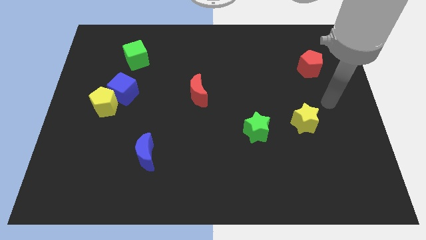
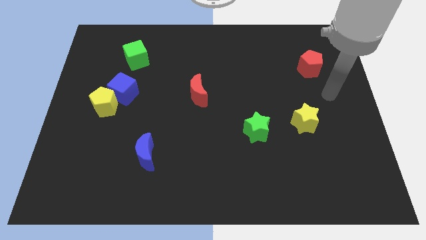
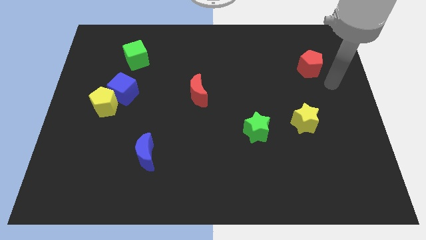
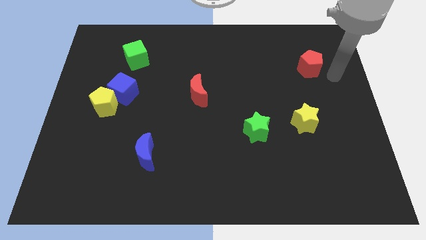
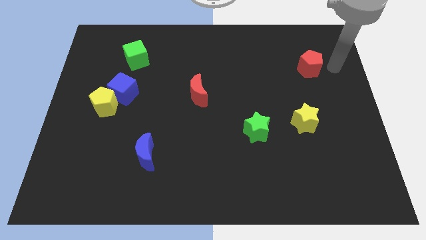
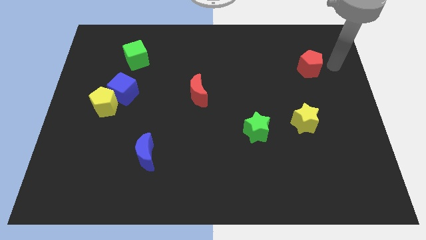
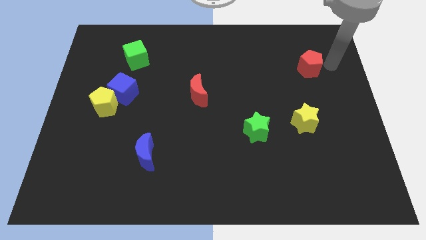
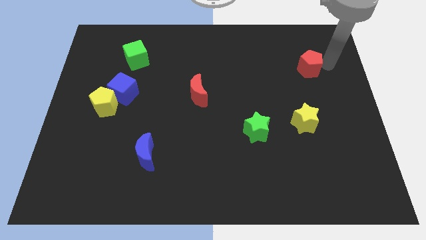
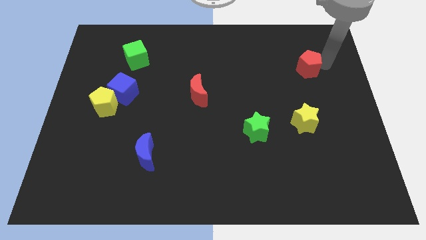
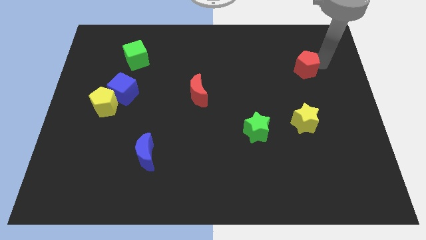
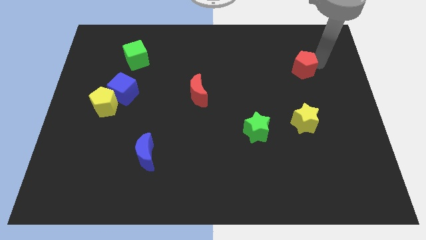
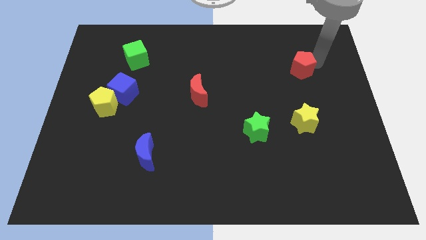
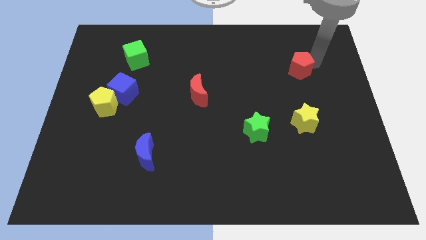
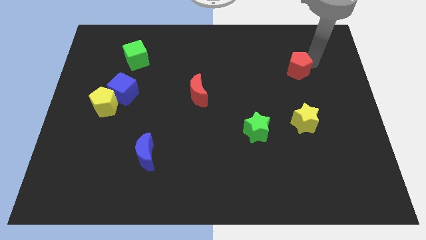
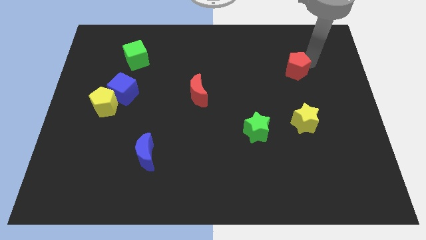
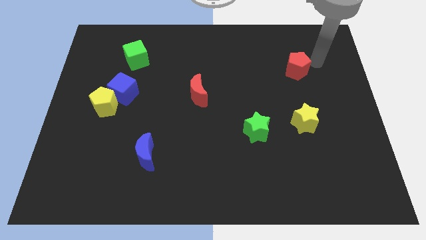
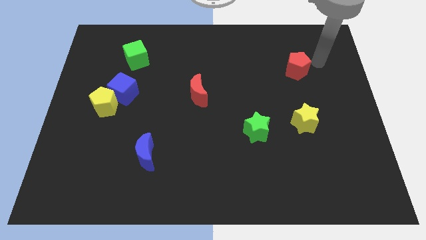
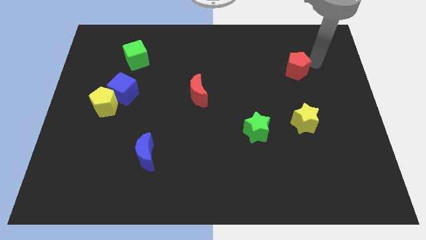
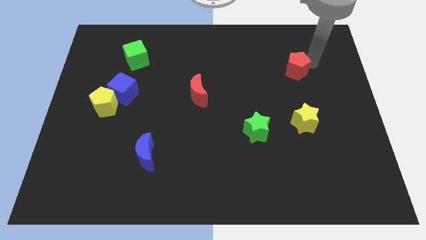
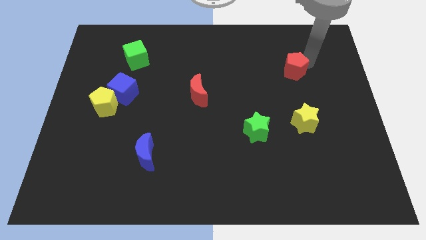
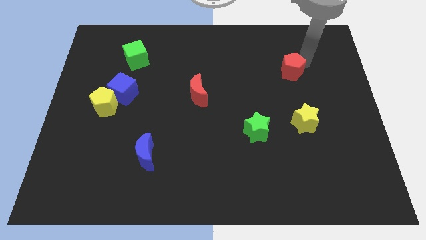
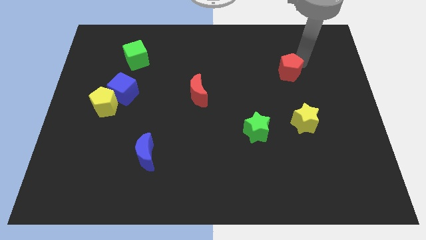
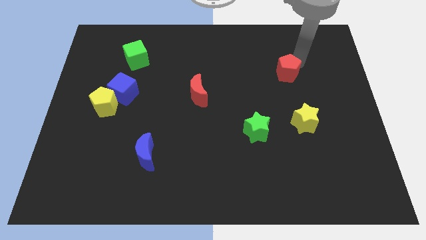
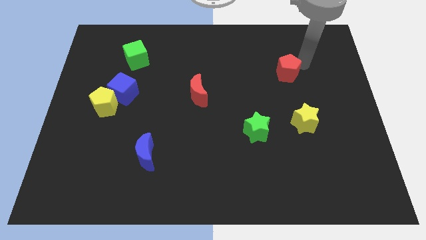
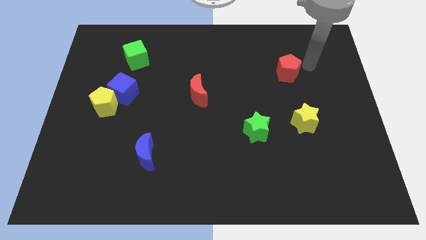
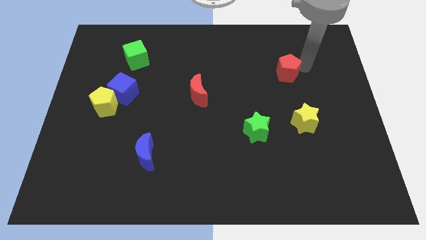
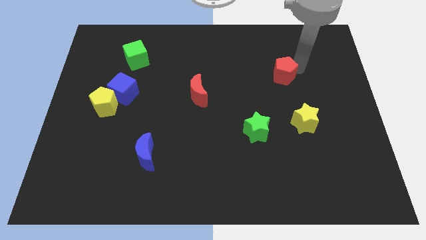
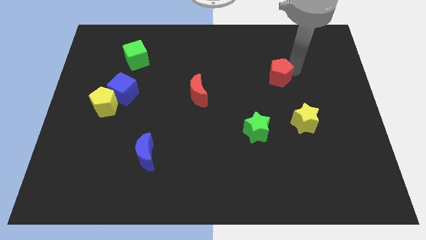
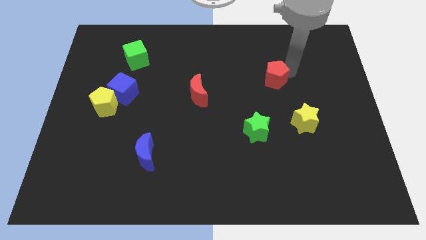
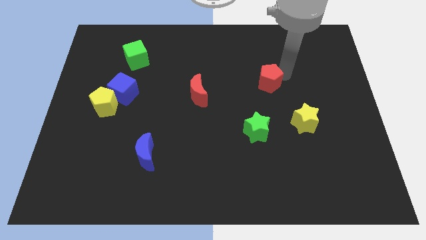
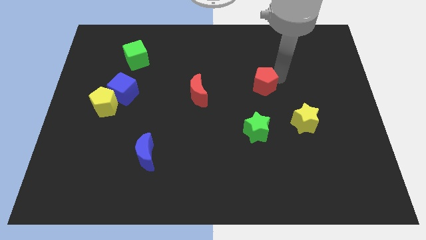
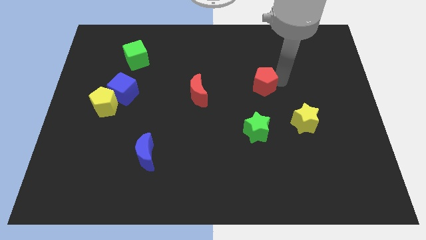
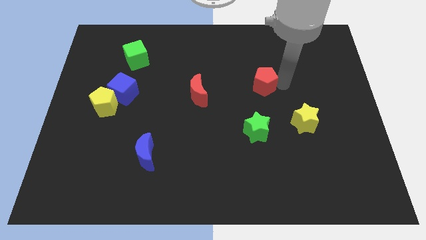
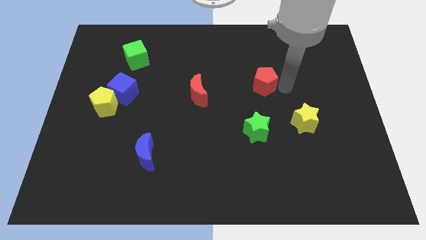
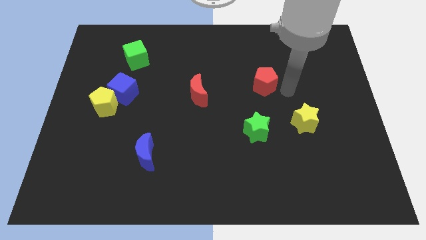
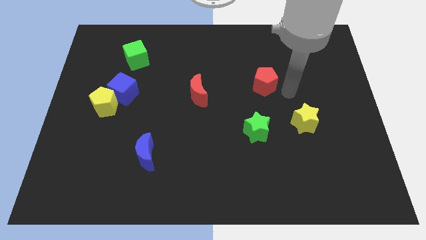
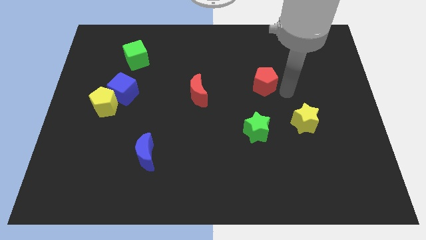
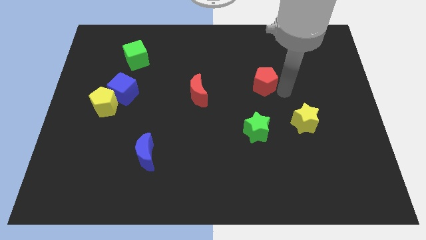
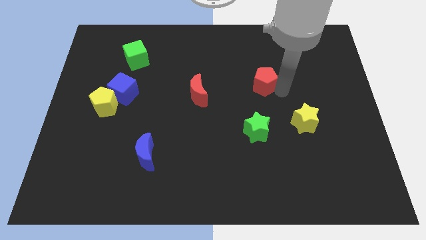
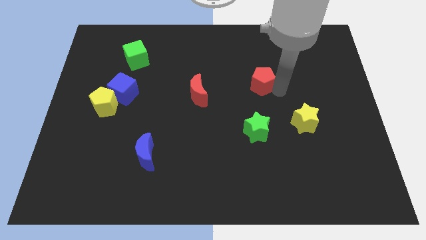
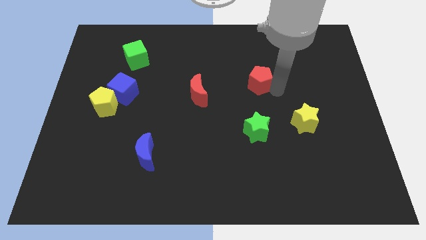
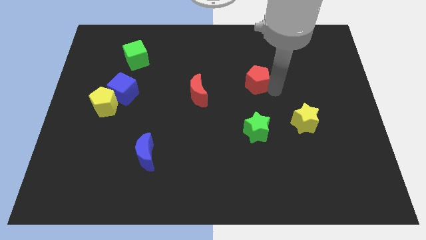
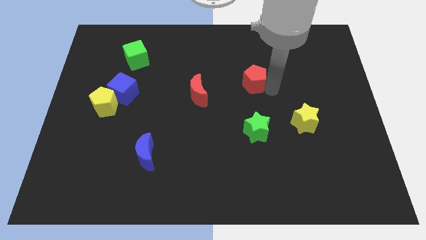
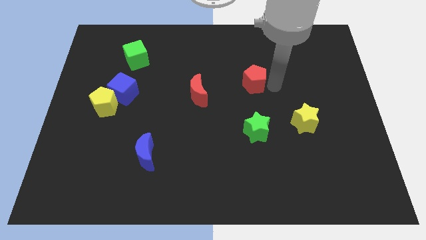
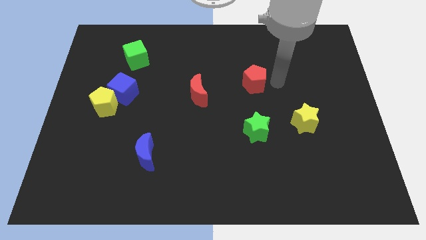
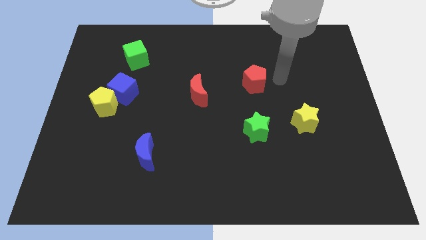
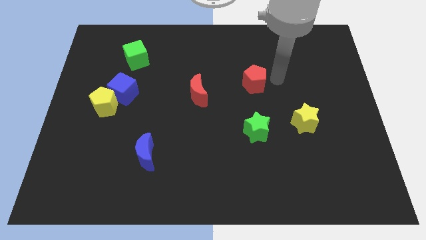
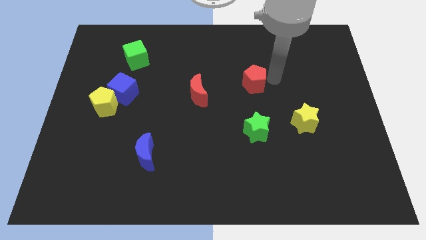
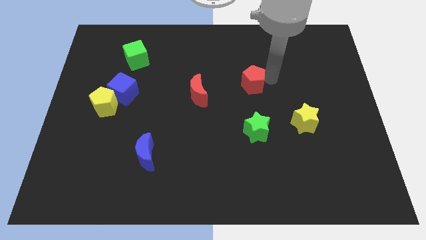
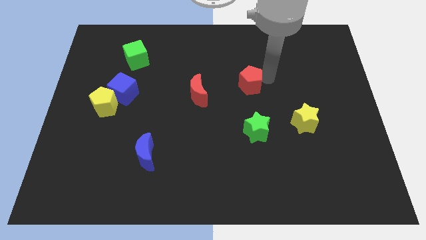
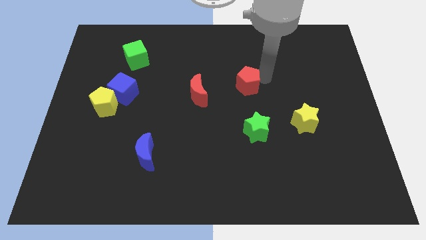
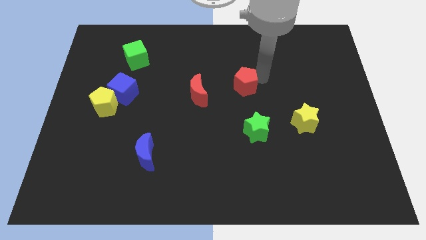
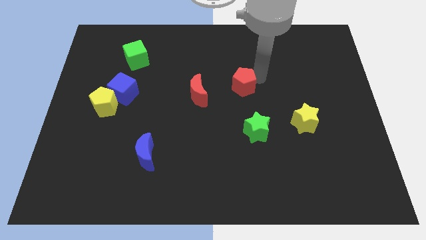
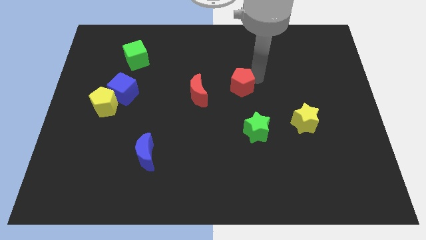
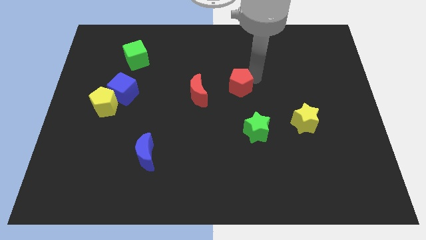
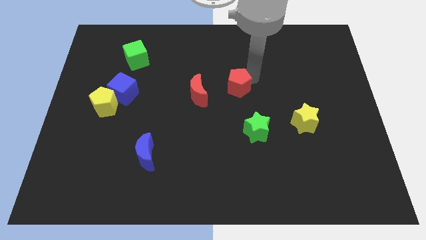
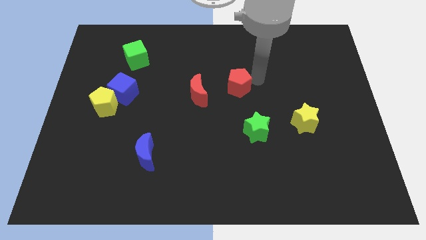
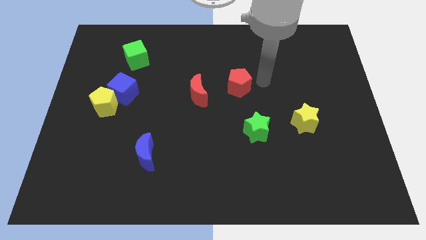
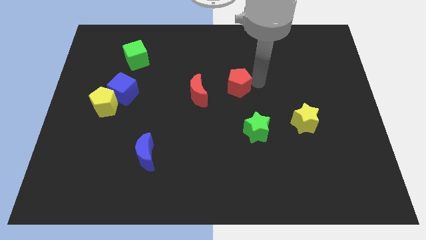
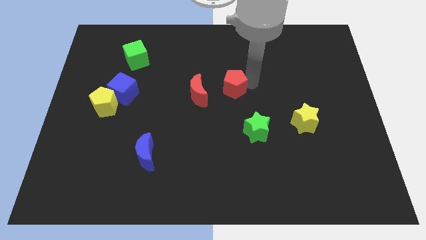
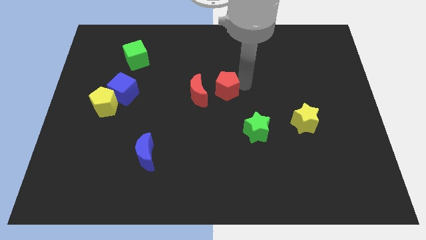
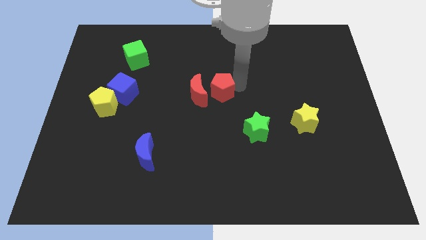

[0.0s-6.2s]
move the red pentagon to the red moon
